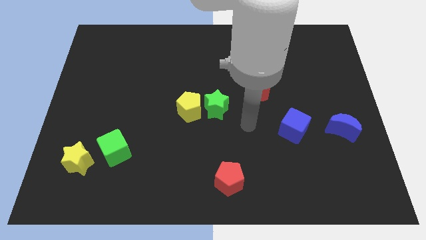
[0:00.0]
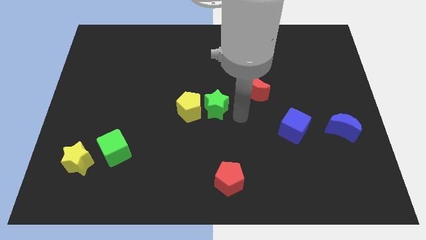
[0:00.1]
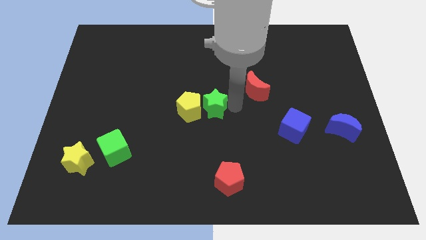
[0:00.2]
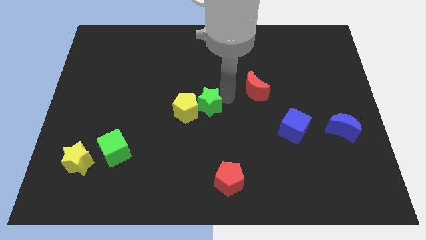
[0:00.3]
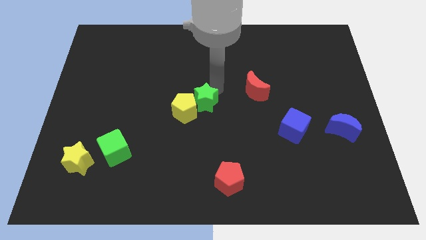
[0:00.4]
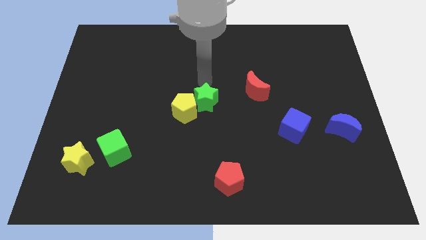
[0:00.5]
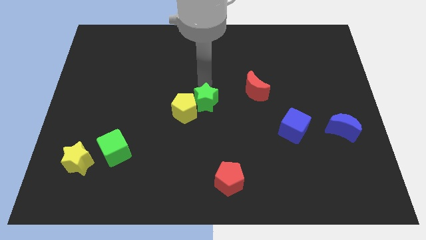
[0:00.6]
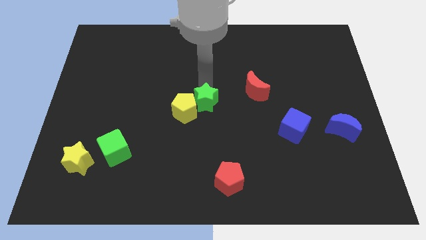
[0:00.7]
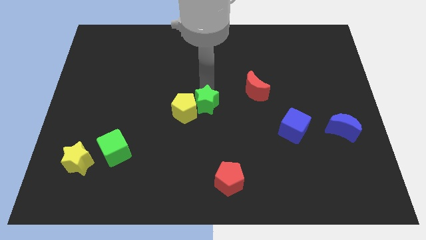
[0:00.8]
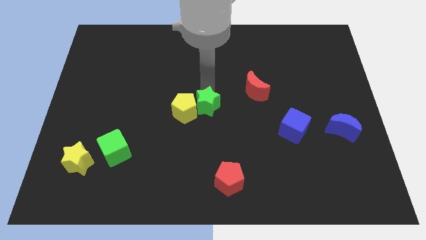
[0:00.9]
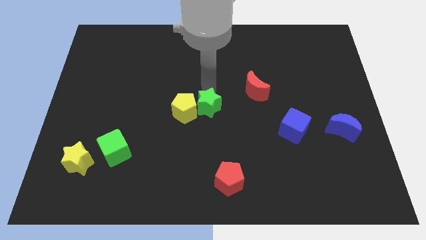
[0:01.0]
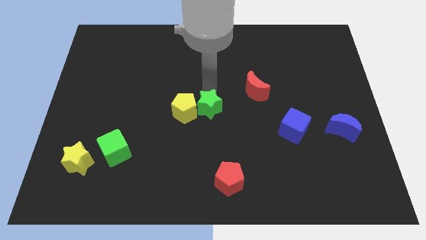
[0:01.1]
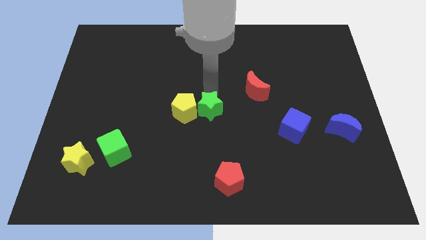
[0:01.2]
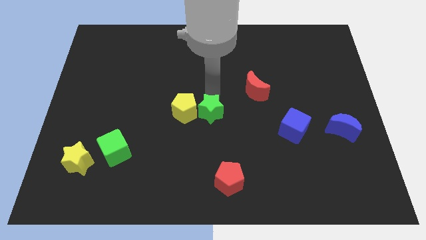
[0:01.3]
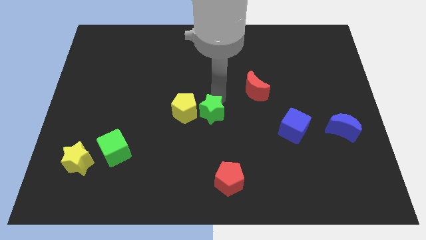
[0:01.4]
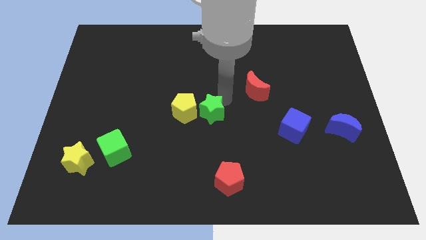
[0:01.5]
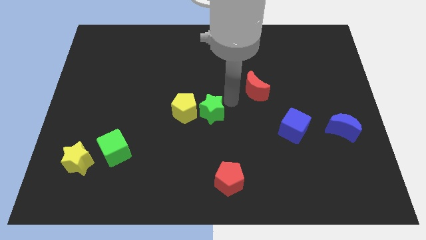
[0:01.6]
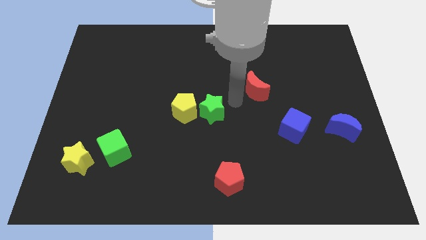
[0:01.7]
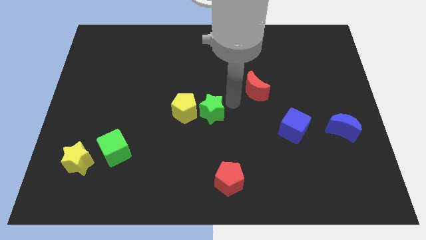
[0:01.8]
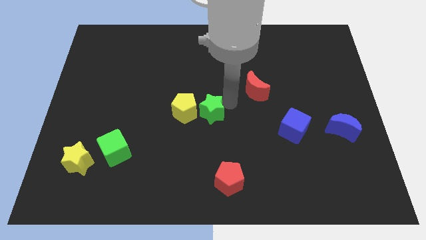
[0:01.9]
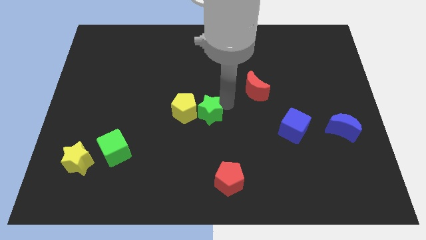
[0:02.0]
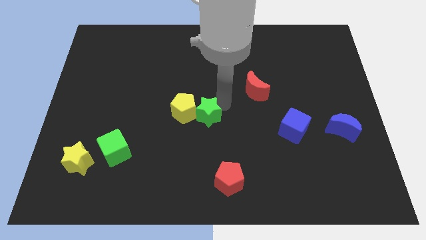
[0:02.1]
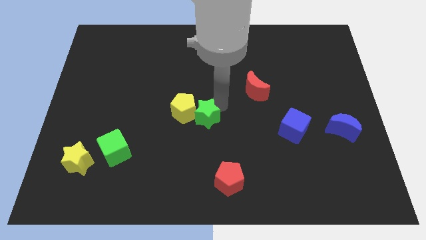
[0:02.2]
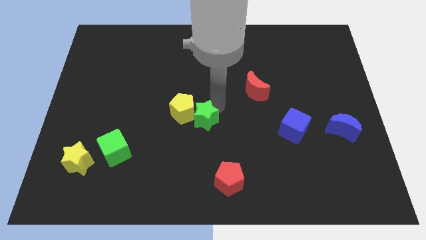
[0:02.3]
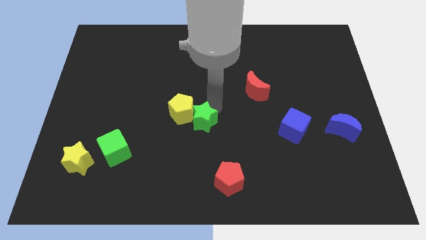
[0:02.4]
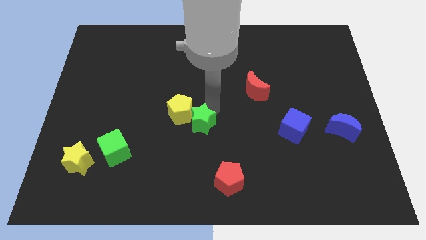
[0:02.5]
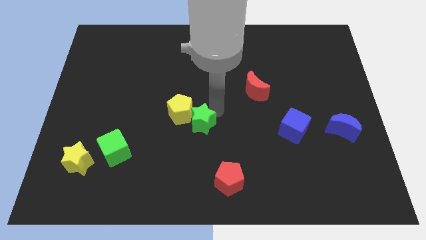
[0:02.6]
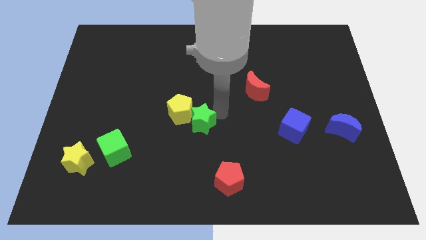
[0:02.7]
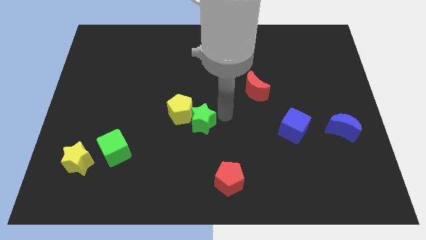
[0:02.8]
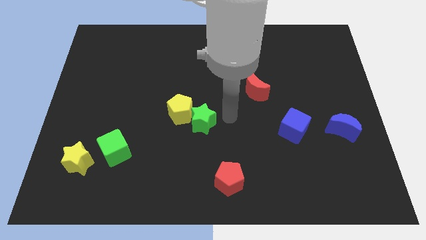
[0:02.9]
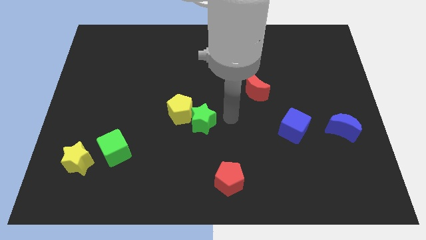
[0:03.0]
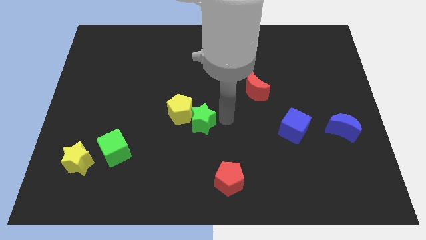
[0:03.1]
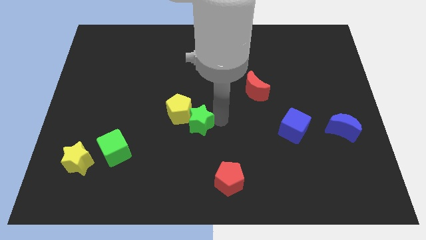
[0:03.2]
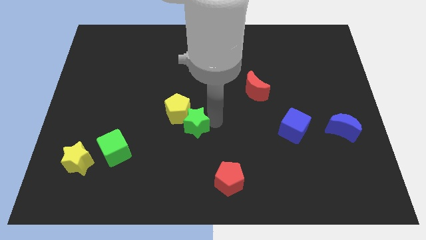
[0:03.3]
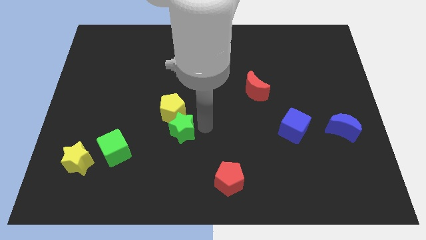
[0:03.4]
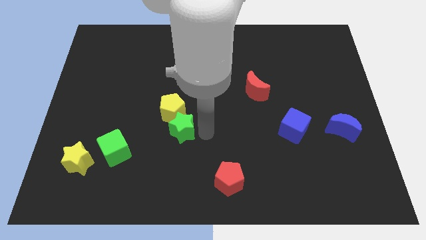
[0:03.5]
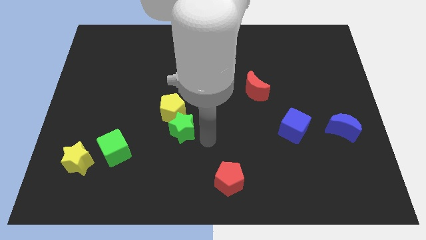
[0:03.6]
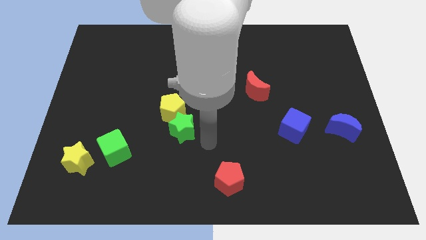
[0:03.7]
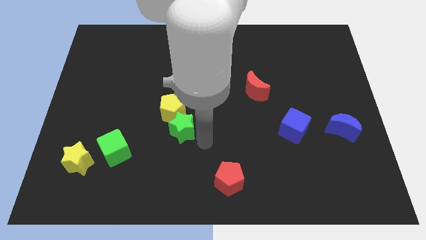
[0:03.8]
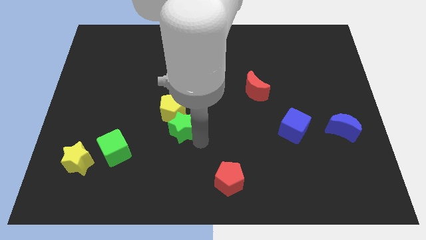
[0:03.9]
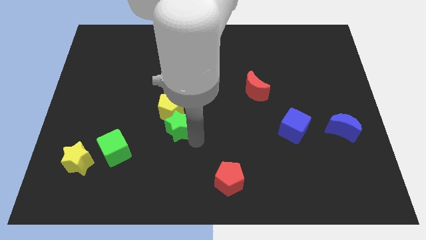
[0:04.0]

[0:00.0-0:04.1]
slide the green star slightly to the left

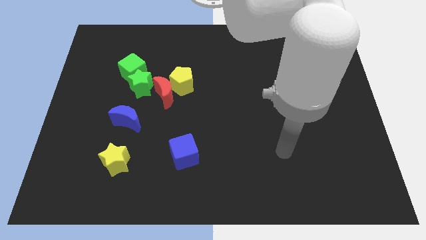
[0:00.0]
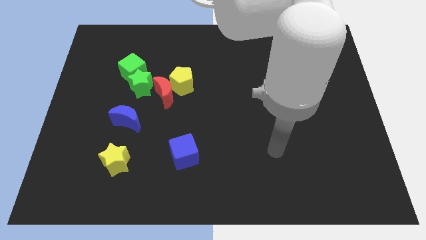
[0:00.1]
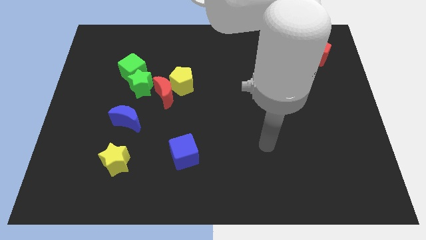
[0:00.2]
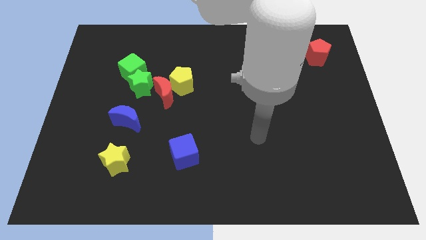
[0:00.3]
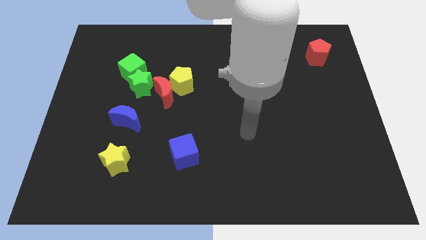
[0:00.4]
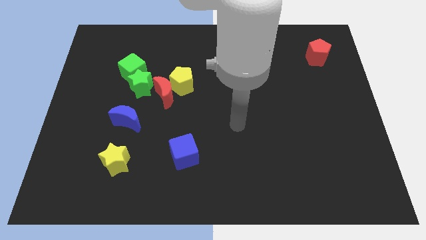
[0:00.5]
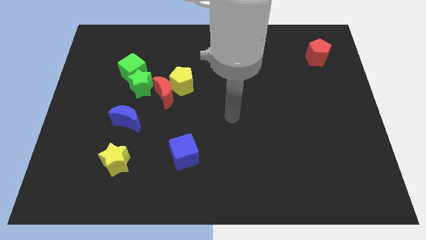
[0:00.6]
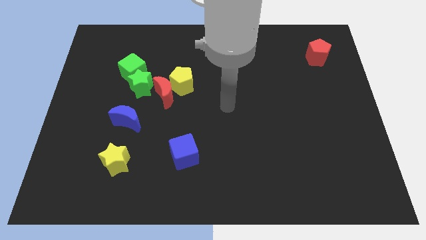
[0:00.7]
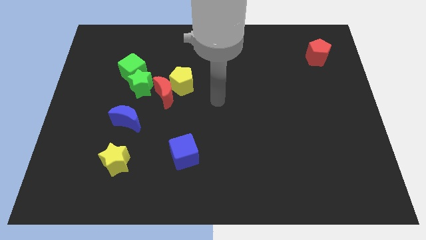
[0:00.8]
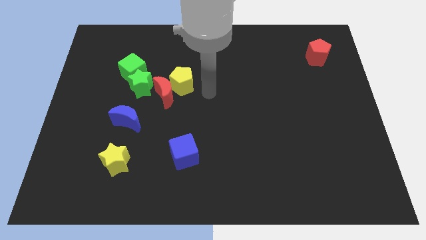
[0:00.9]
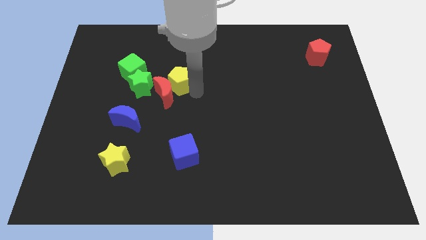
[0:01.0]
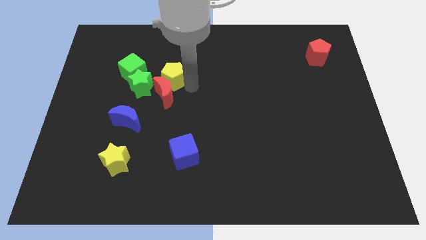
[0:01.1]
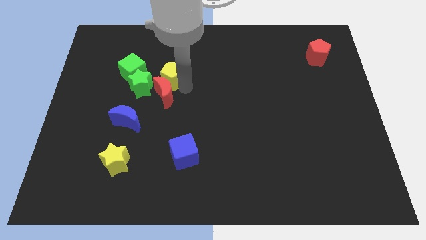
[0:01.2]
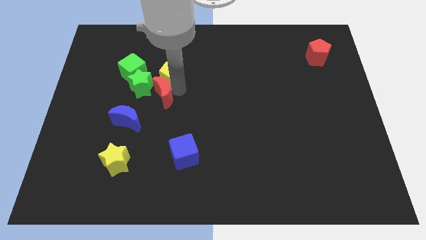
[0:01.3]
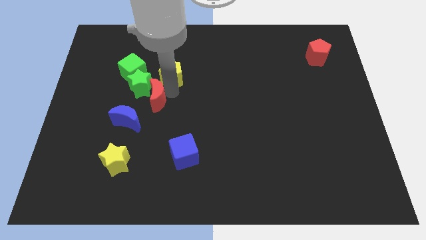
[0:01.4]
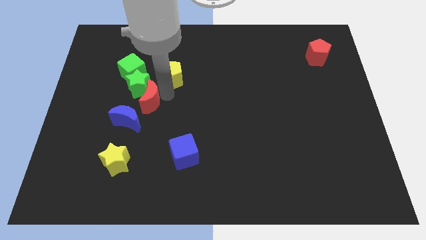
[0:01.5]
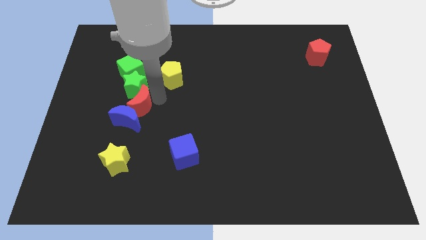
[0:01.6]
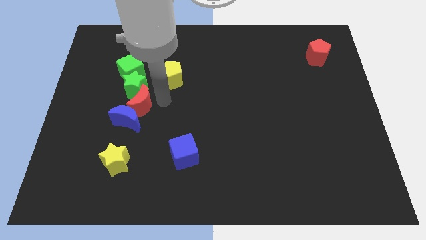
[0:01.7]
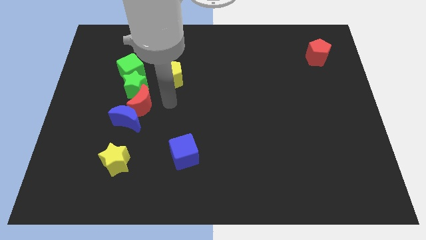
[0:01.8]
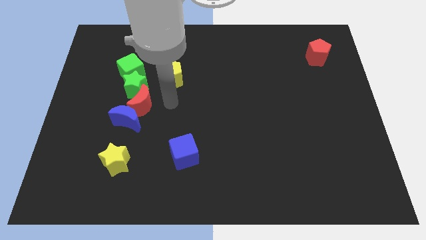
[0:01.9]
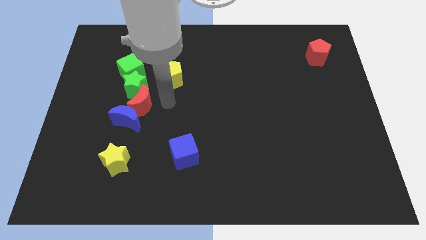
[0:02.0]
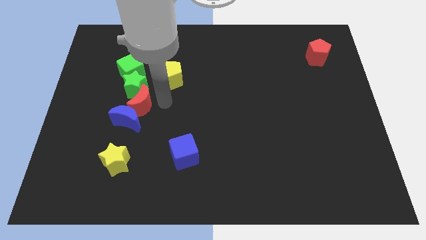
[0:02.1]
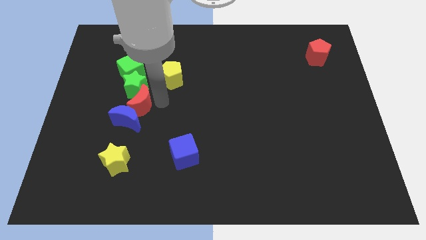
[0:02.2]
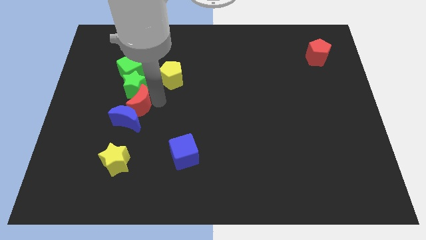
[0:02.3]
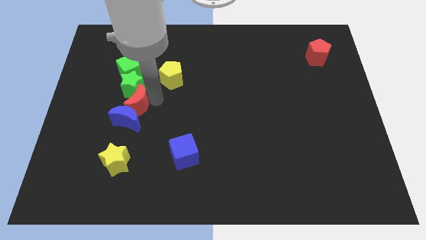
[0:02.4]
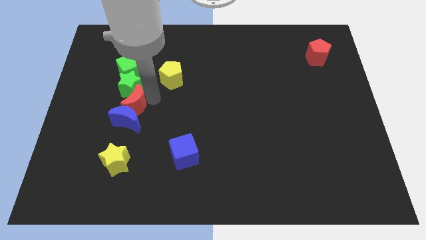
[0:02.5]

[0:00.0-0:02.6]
push the red moon downwards and to the left a bit

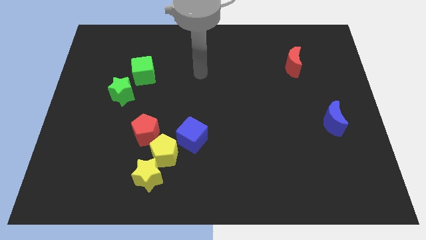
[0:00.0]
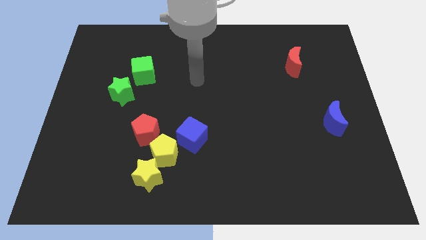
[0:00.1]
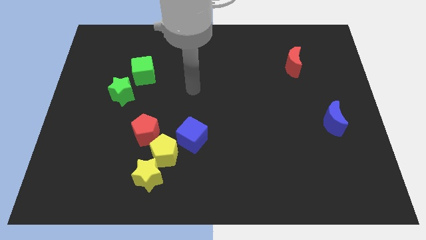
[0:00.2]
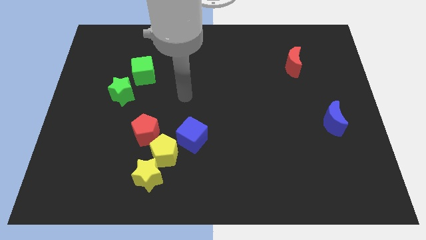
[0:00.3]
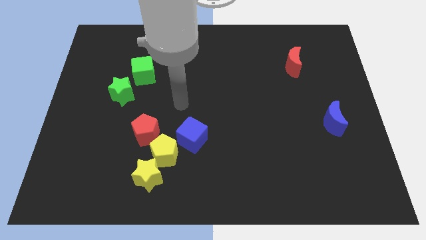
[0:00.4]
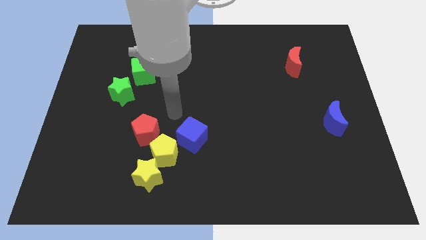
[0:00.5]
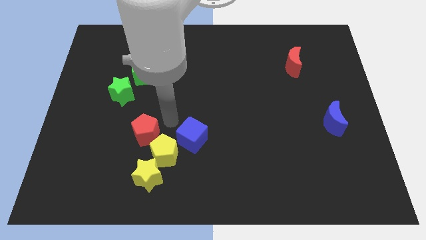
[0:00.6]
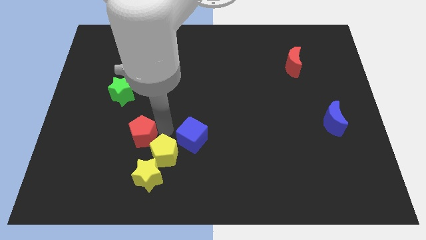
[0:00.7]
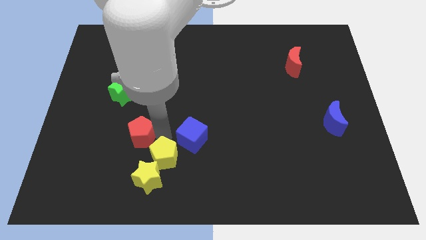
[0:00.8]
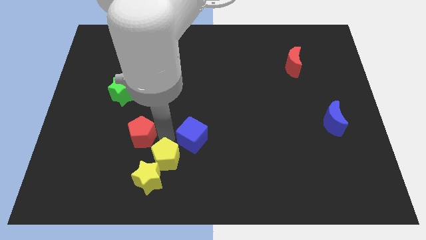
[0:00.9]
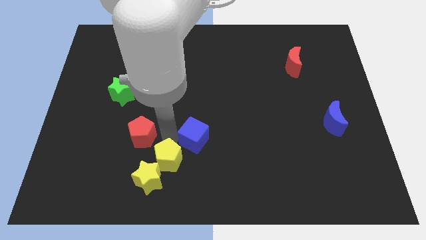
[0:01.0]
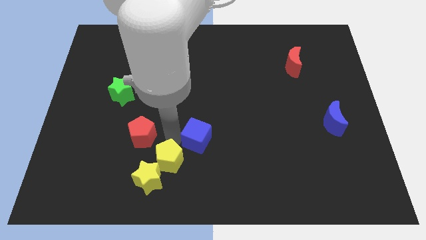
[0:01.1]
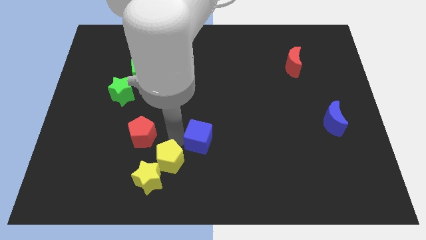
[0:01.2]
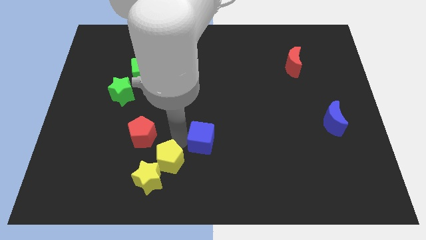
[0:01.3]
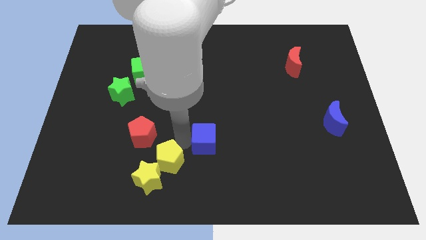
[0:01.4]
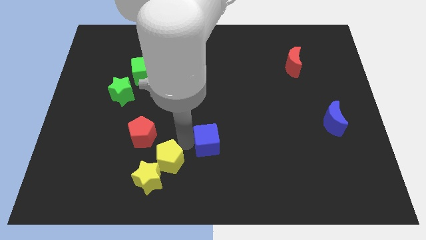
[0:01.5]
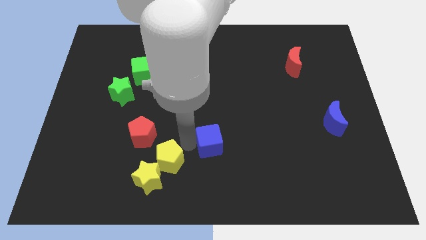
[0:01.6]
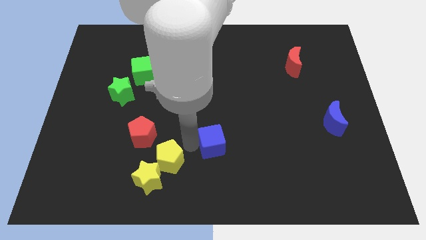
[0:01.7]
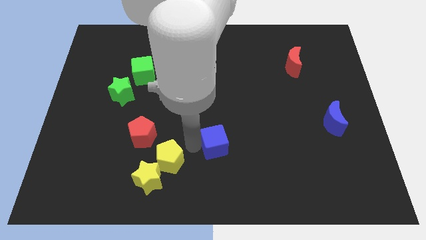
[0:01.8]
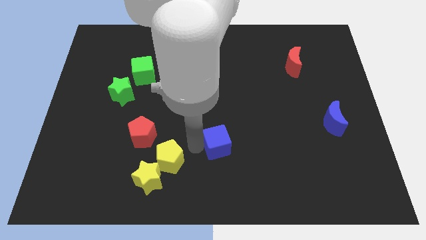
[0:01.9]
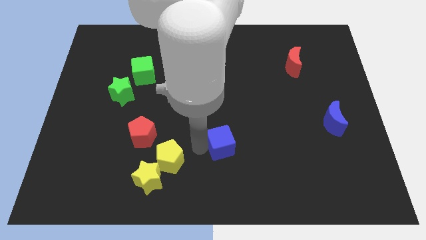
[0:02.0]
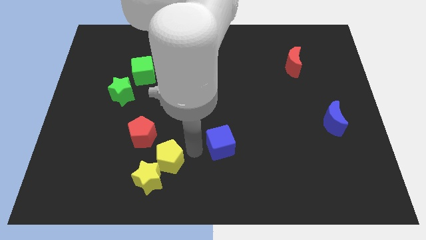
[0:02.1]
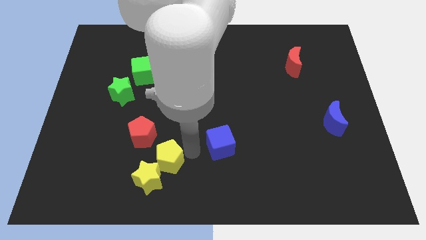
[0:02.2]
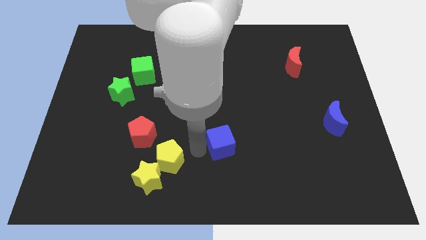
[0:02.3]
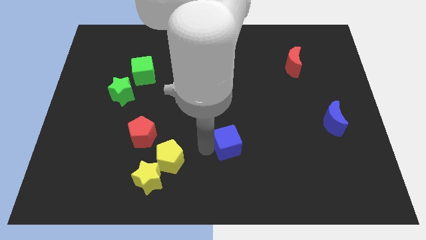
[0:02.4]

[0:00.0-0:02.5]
slightly move the blue cube right
